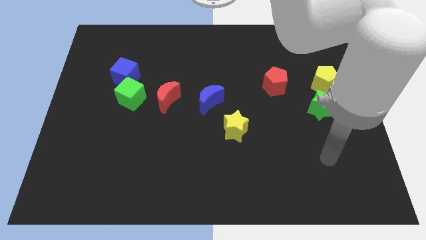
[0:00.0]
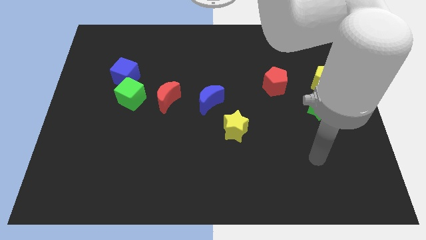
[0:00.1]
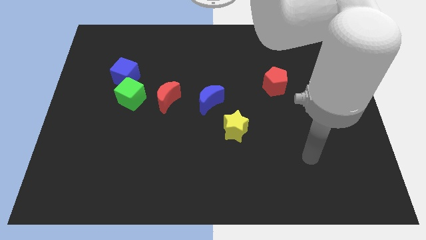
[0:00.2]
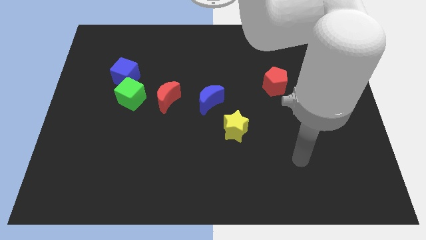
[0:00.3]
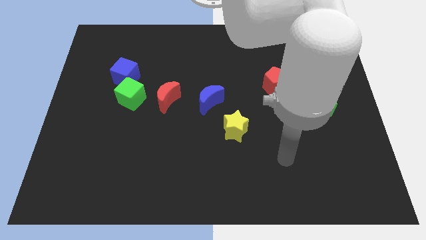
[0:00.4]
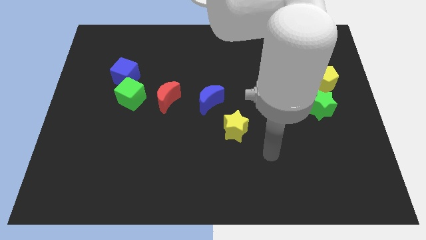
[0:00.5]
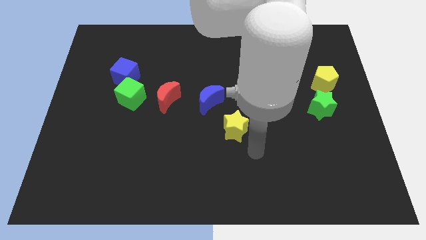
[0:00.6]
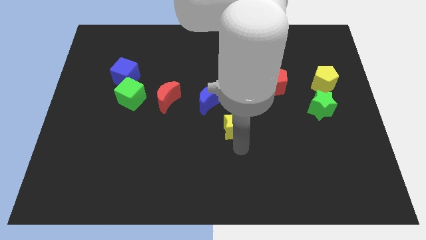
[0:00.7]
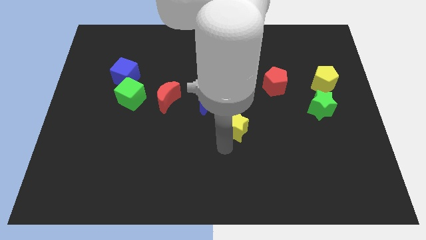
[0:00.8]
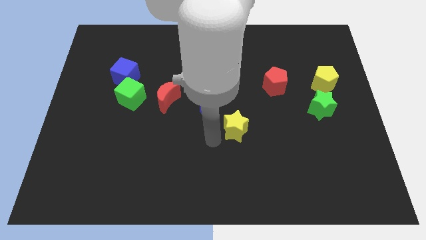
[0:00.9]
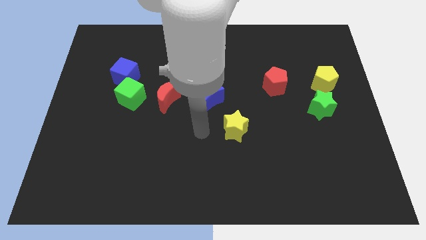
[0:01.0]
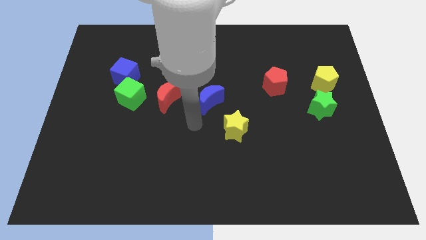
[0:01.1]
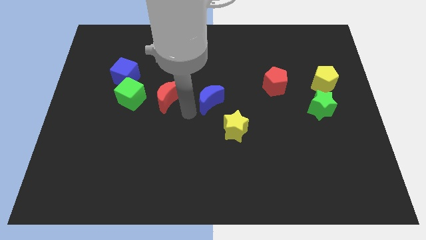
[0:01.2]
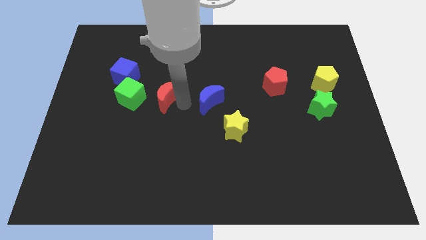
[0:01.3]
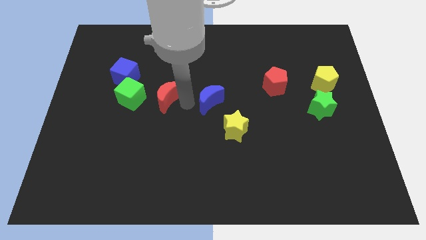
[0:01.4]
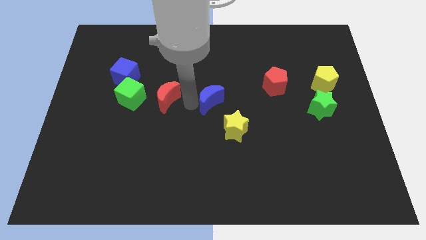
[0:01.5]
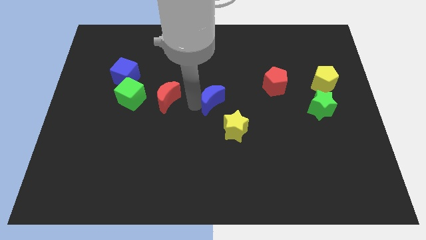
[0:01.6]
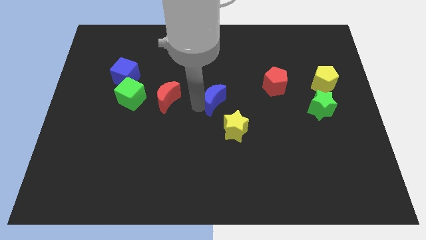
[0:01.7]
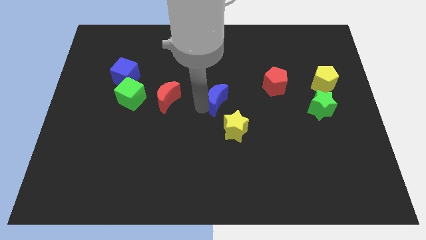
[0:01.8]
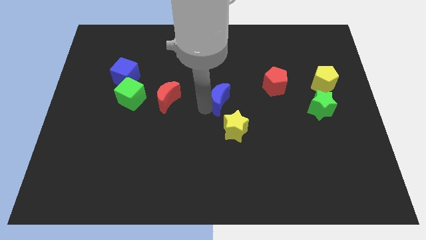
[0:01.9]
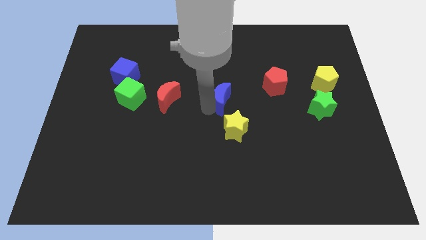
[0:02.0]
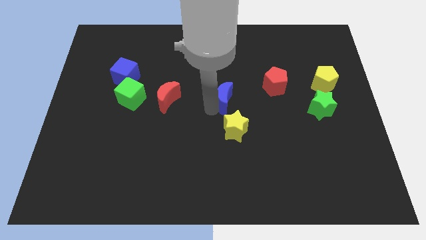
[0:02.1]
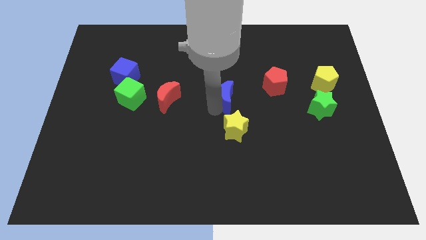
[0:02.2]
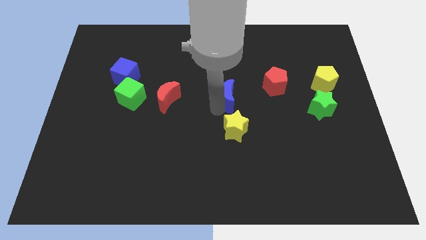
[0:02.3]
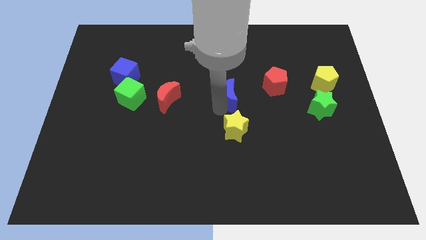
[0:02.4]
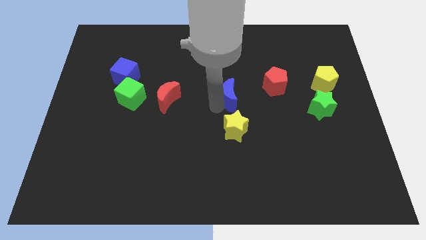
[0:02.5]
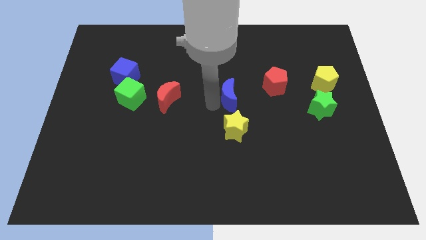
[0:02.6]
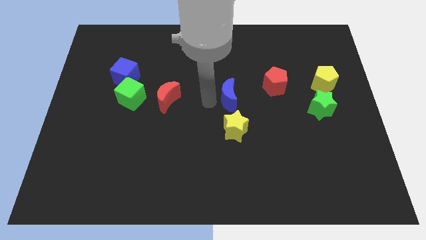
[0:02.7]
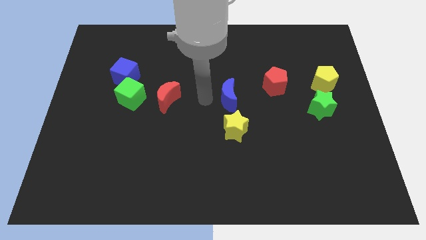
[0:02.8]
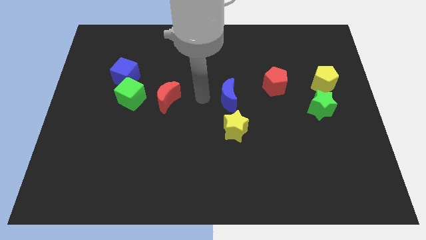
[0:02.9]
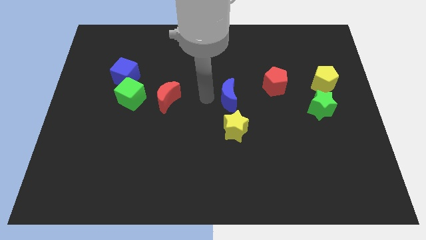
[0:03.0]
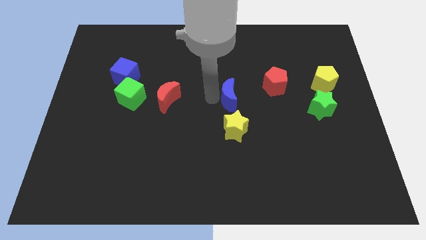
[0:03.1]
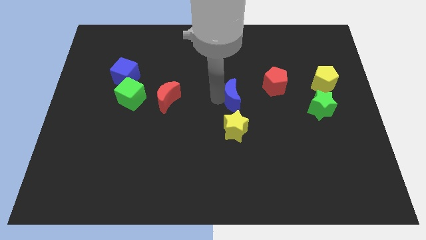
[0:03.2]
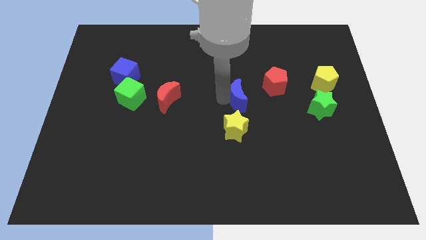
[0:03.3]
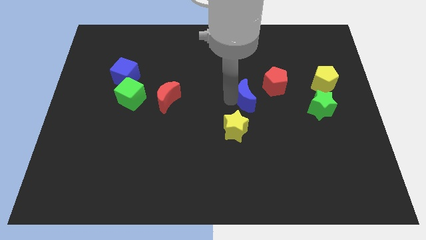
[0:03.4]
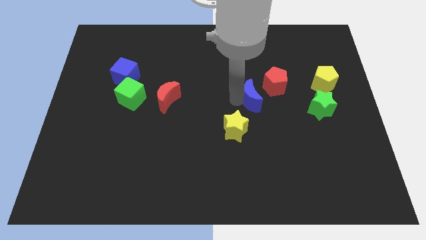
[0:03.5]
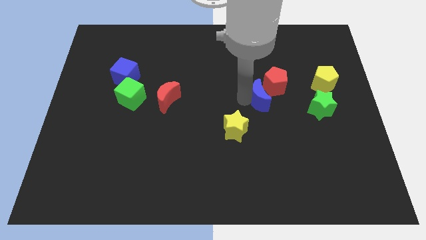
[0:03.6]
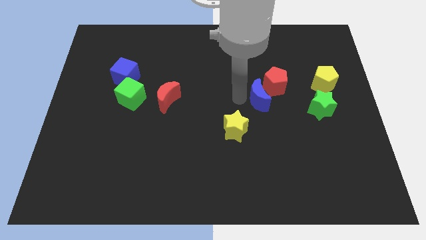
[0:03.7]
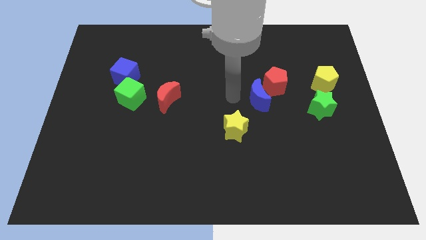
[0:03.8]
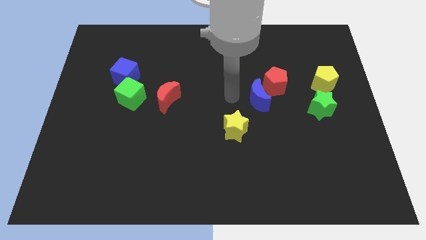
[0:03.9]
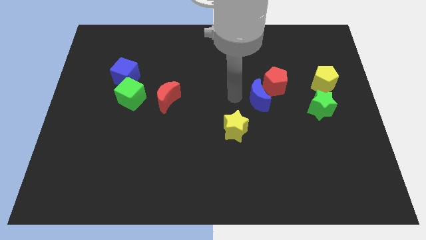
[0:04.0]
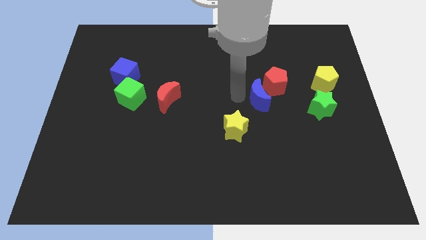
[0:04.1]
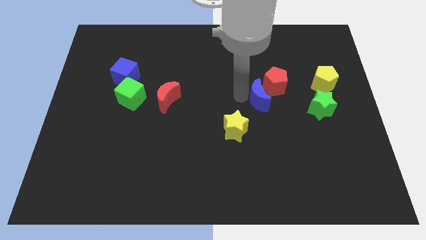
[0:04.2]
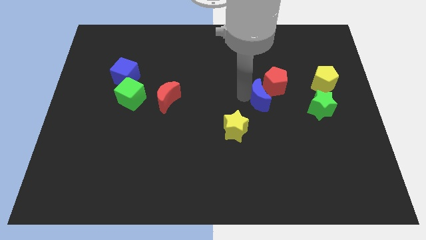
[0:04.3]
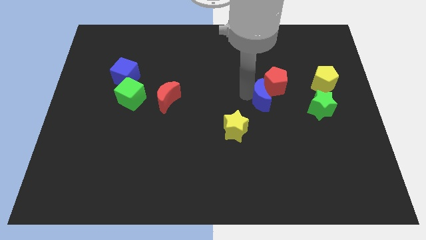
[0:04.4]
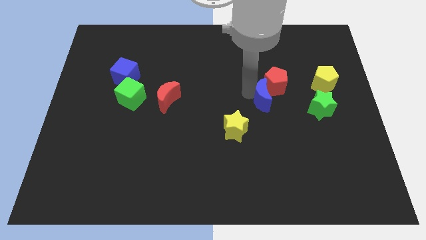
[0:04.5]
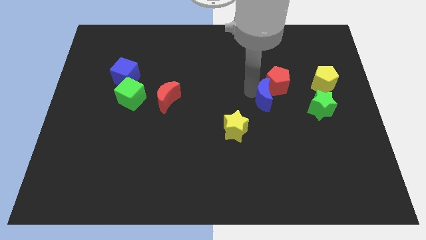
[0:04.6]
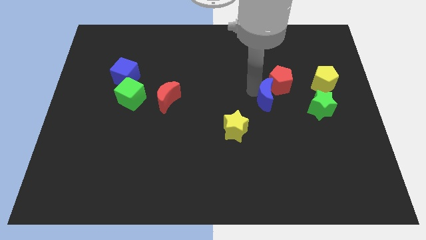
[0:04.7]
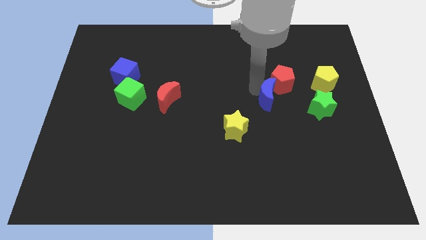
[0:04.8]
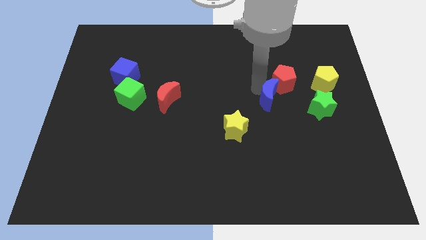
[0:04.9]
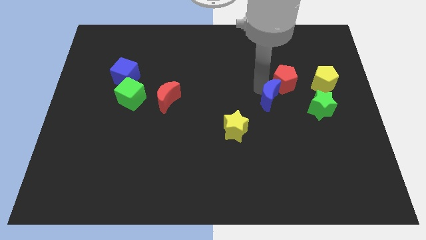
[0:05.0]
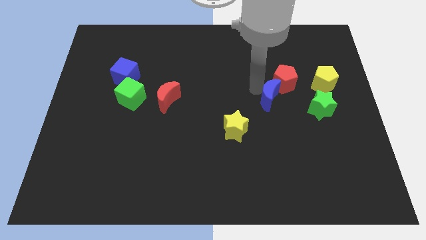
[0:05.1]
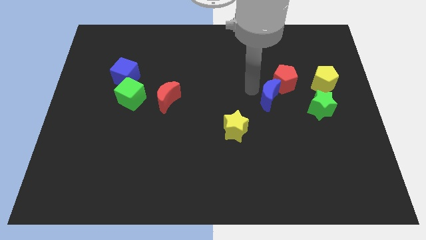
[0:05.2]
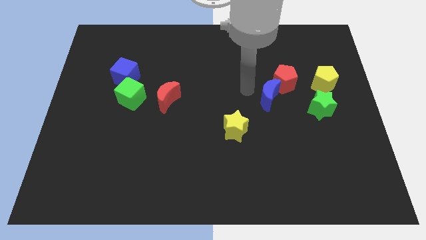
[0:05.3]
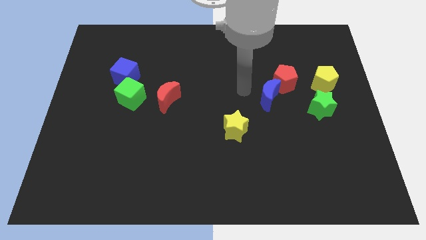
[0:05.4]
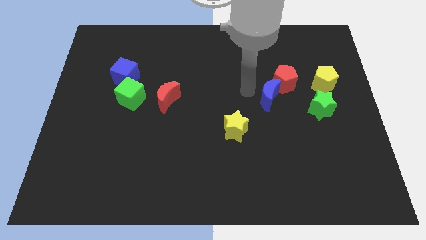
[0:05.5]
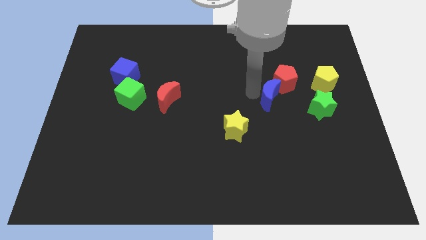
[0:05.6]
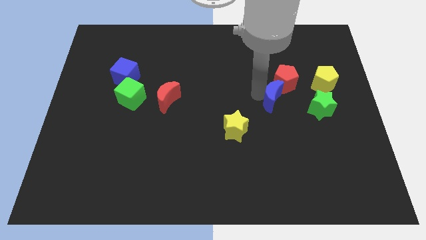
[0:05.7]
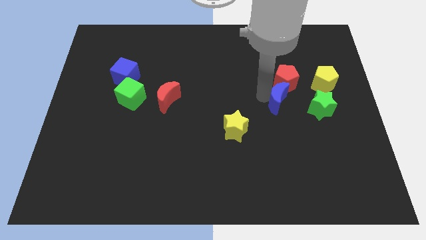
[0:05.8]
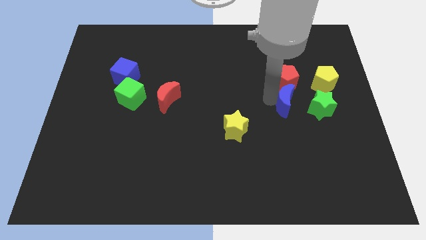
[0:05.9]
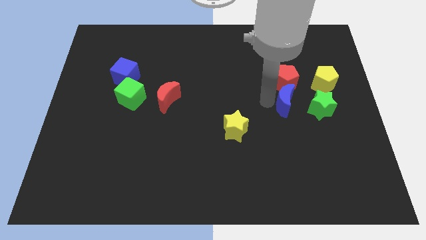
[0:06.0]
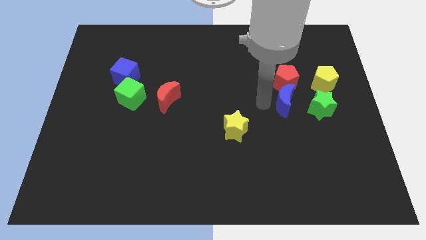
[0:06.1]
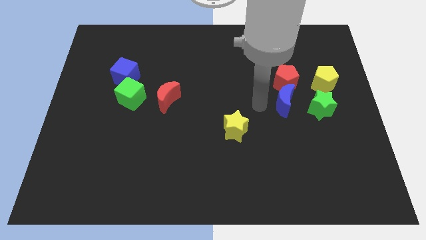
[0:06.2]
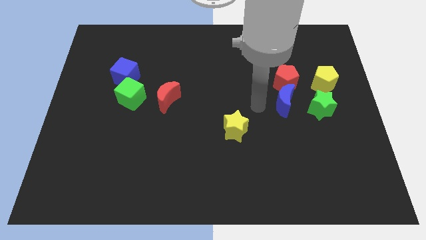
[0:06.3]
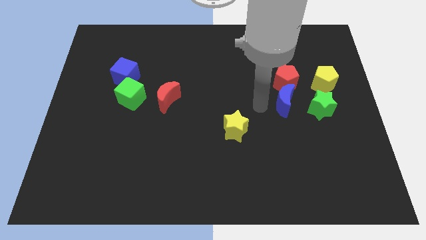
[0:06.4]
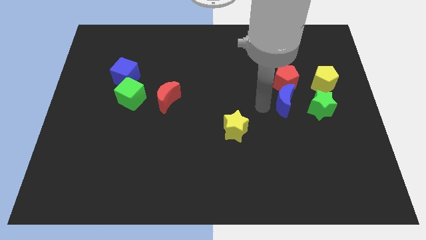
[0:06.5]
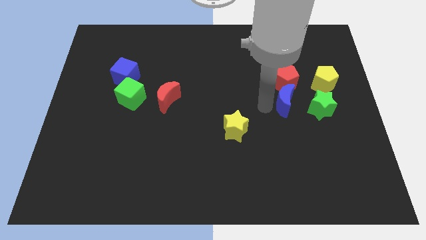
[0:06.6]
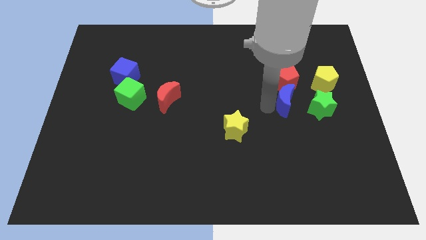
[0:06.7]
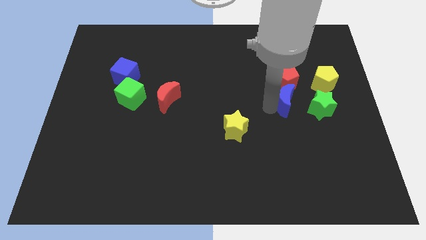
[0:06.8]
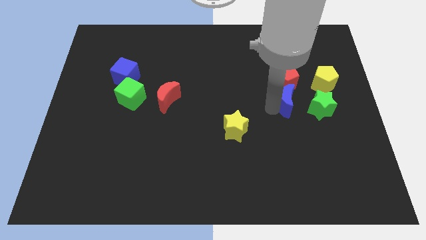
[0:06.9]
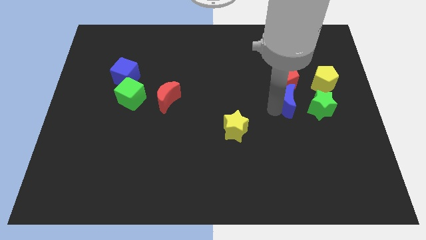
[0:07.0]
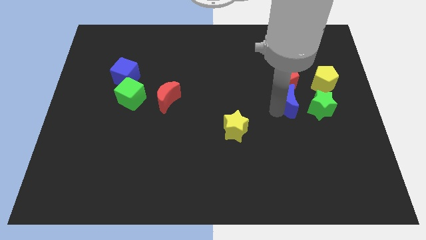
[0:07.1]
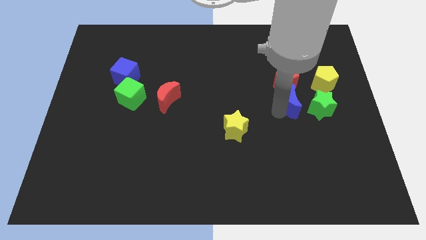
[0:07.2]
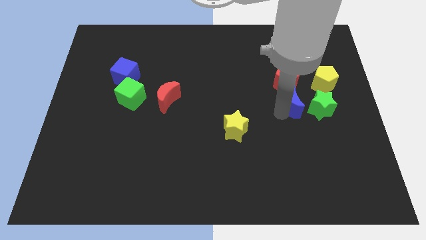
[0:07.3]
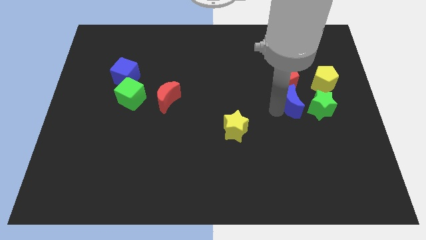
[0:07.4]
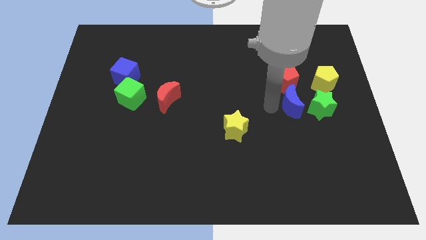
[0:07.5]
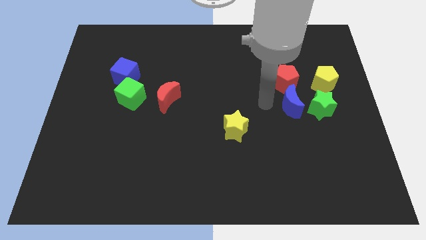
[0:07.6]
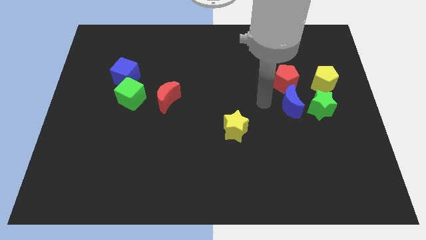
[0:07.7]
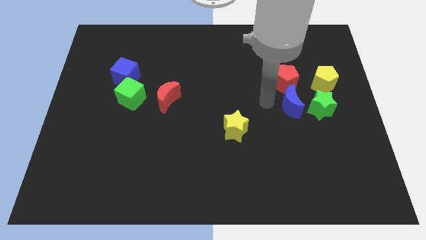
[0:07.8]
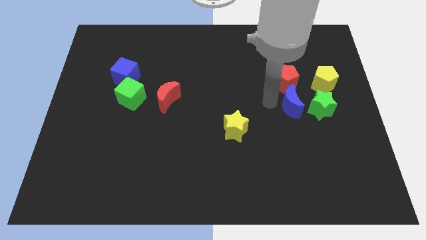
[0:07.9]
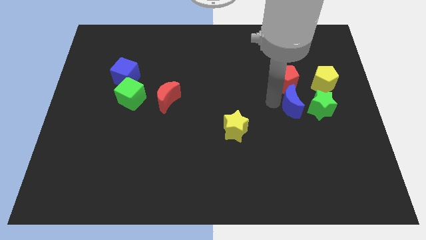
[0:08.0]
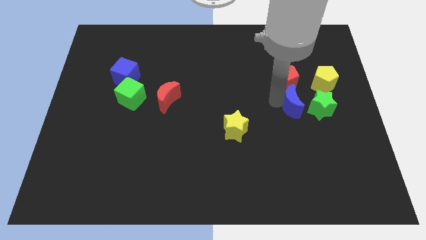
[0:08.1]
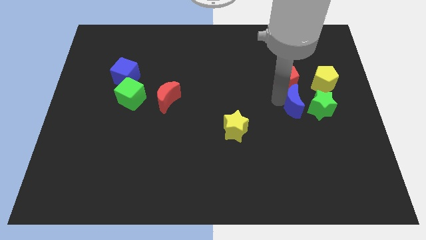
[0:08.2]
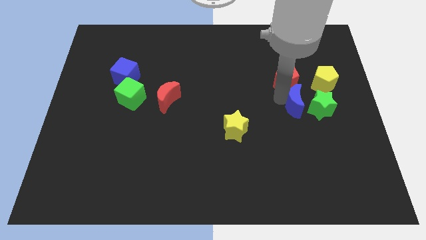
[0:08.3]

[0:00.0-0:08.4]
push the blue moon towards the green star
